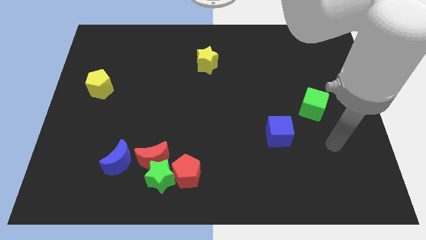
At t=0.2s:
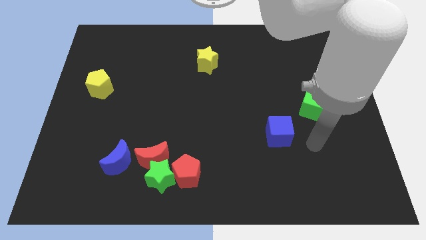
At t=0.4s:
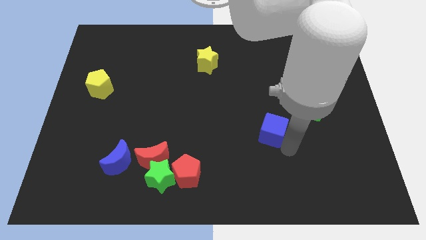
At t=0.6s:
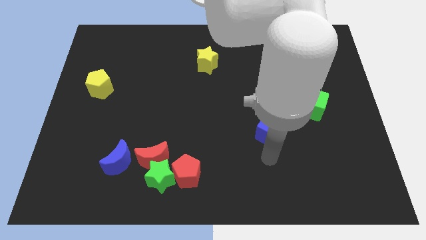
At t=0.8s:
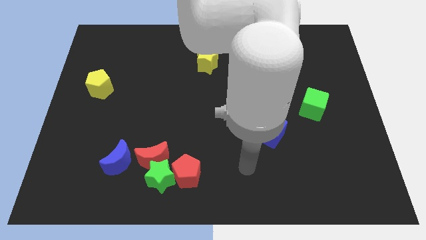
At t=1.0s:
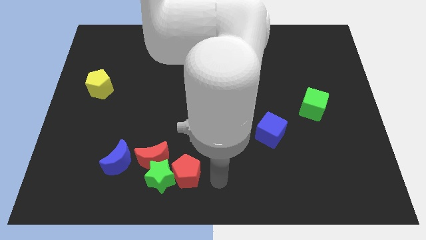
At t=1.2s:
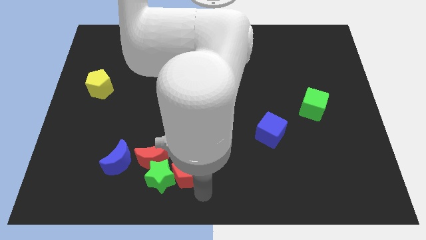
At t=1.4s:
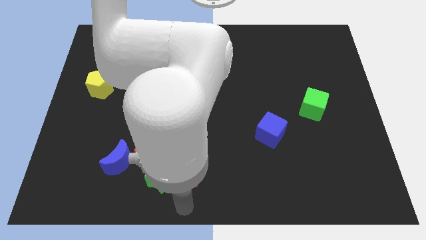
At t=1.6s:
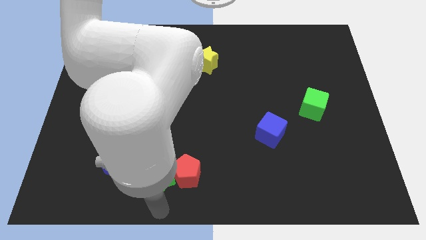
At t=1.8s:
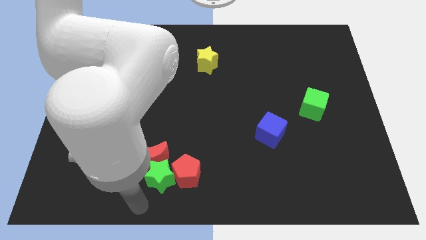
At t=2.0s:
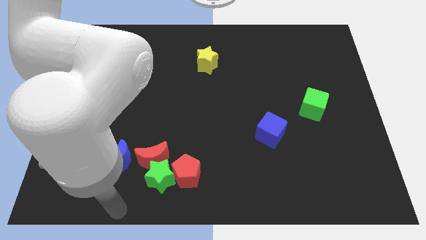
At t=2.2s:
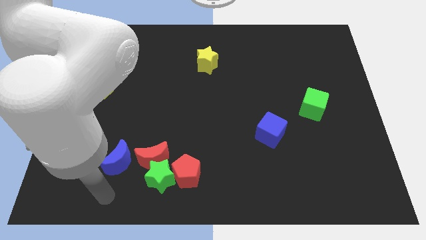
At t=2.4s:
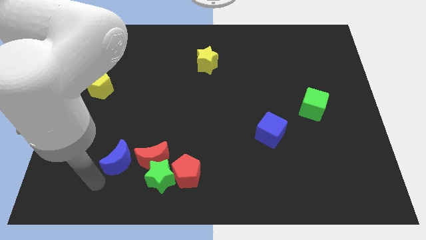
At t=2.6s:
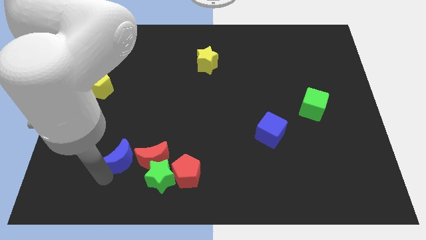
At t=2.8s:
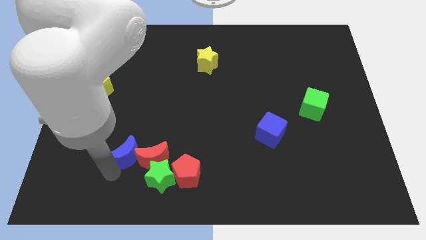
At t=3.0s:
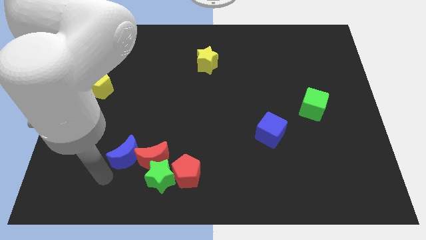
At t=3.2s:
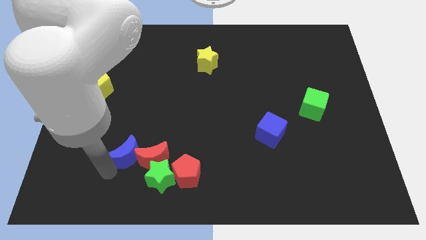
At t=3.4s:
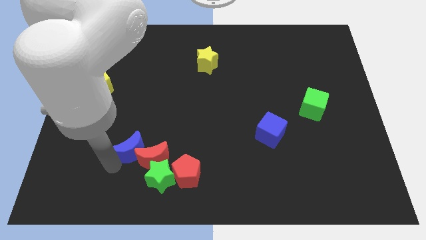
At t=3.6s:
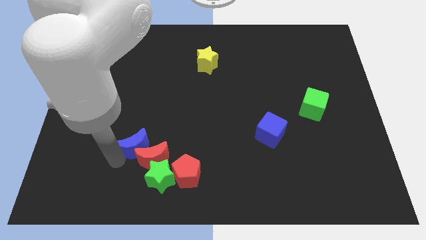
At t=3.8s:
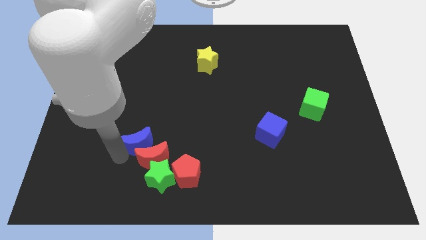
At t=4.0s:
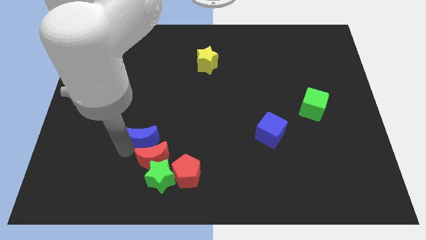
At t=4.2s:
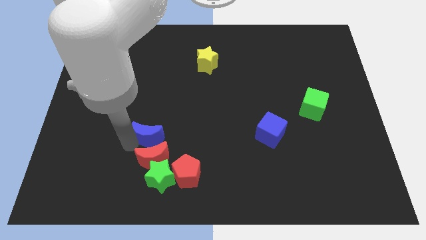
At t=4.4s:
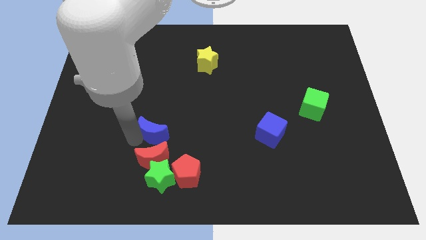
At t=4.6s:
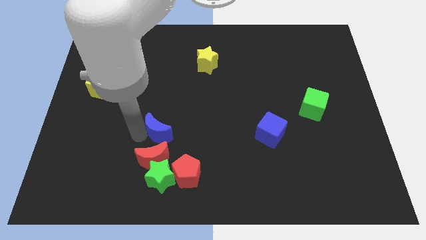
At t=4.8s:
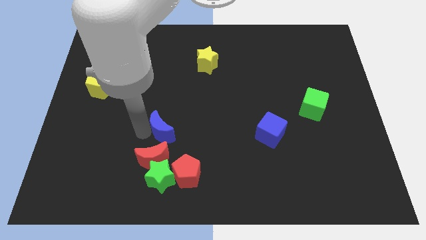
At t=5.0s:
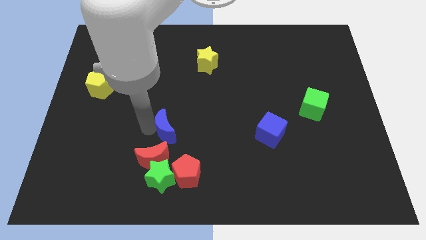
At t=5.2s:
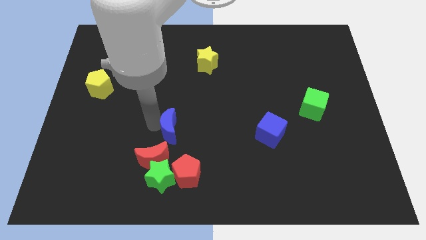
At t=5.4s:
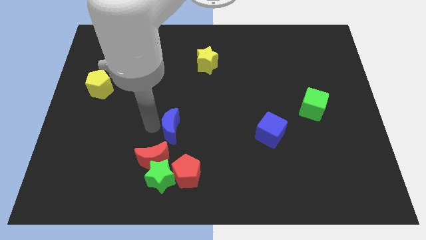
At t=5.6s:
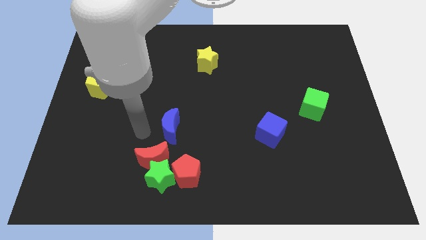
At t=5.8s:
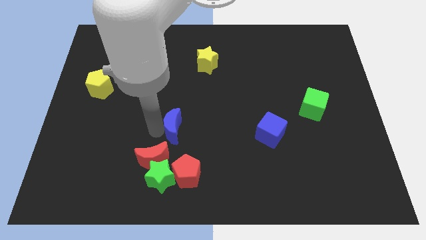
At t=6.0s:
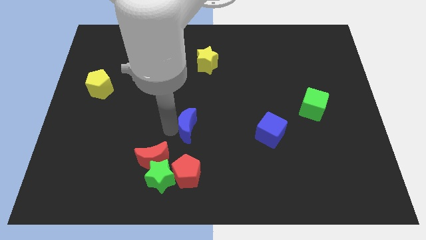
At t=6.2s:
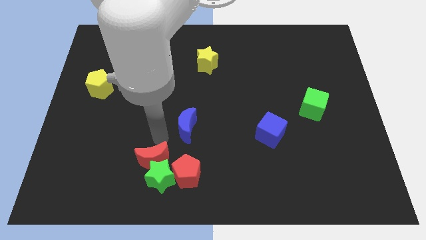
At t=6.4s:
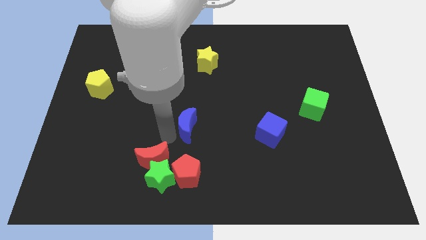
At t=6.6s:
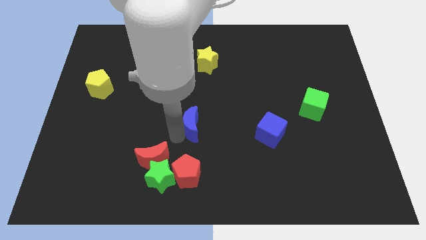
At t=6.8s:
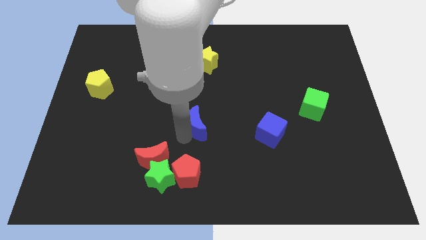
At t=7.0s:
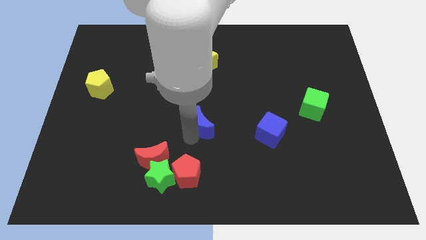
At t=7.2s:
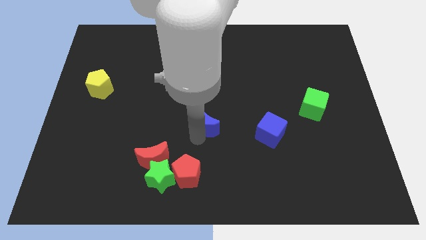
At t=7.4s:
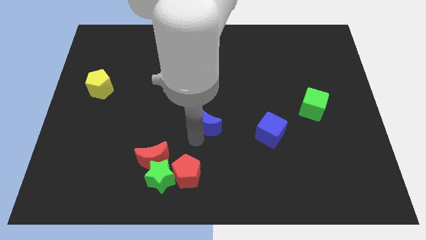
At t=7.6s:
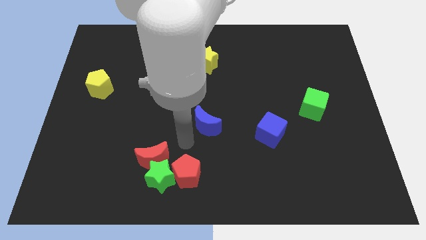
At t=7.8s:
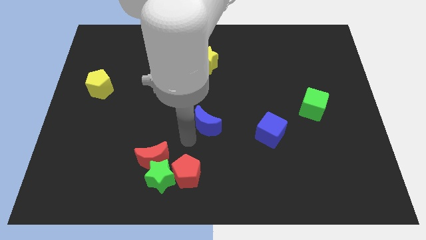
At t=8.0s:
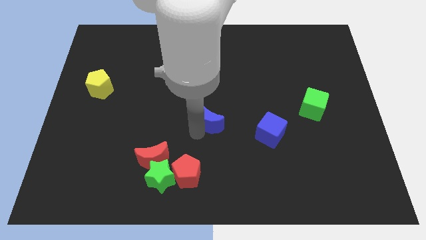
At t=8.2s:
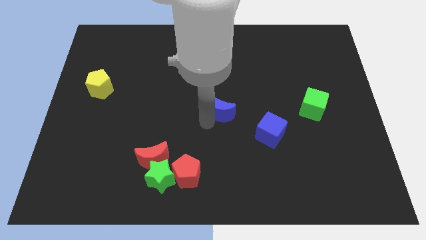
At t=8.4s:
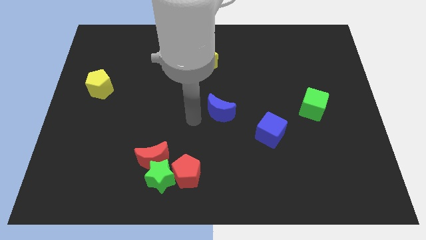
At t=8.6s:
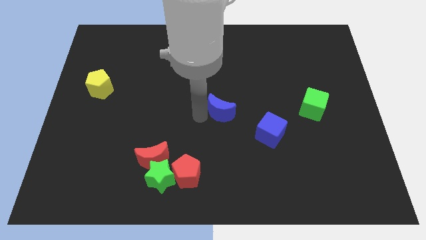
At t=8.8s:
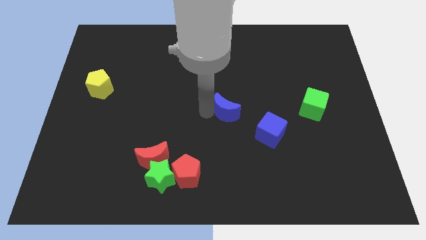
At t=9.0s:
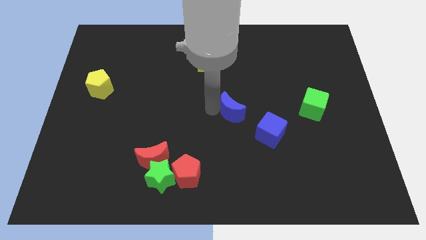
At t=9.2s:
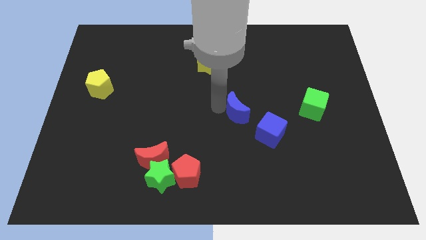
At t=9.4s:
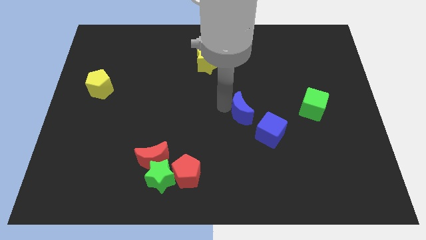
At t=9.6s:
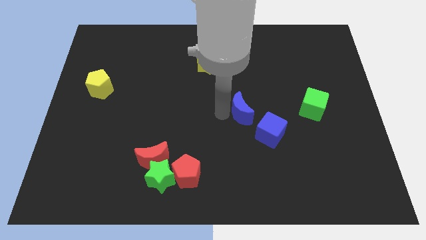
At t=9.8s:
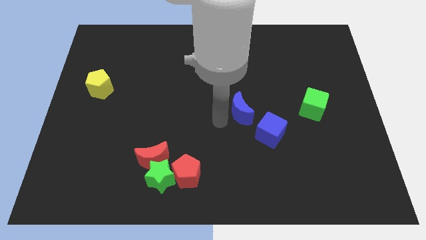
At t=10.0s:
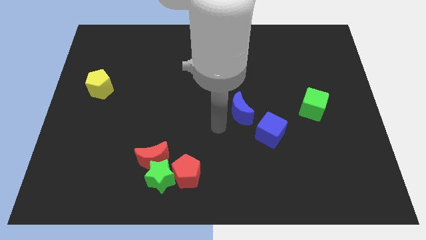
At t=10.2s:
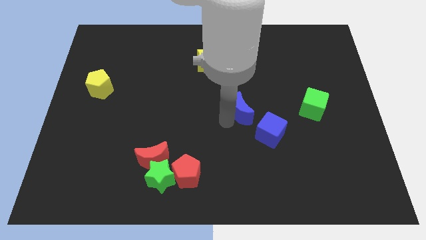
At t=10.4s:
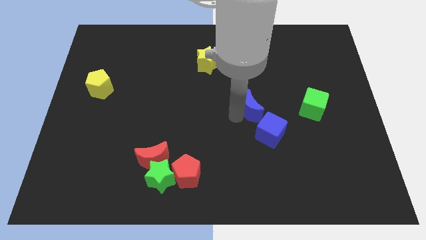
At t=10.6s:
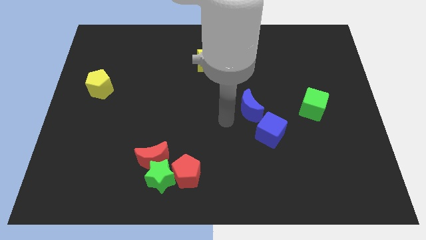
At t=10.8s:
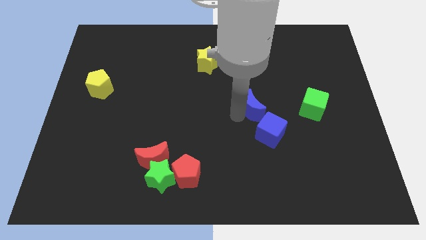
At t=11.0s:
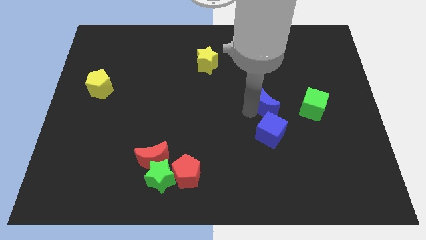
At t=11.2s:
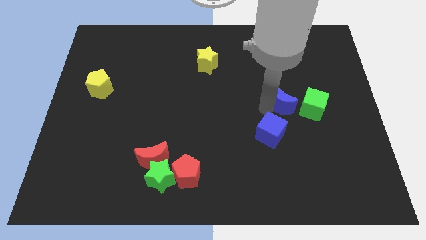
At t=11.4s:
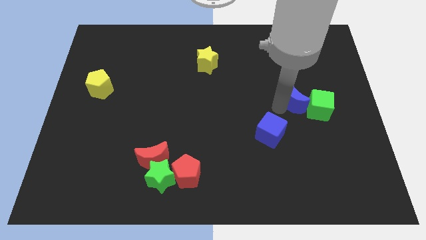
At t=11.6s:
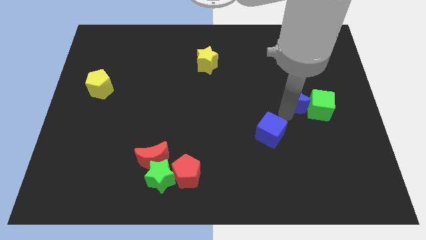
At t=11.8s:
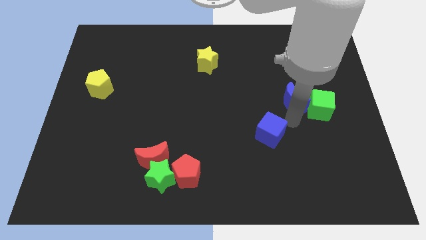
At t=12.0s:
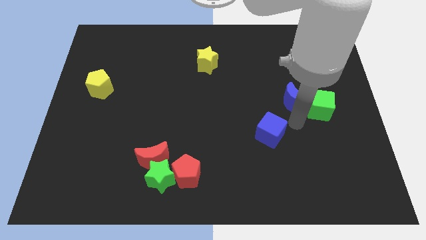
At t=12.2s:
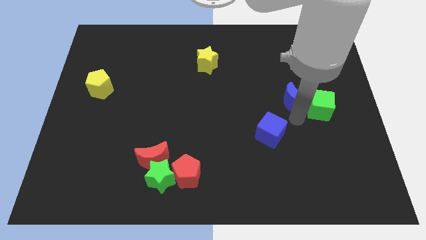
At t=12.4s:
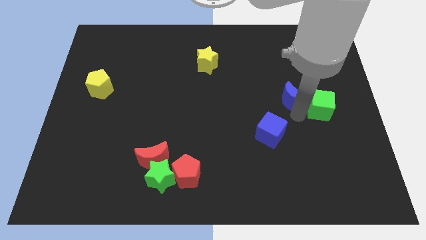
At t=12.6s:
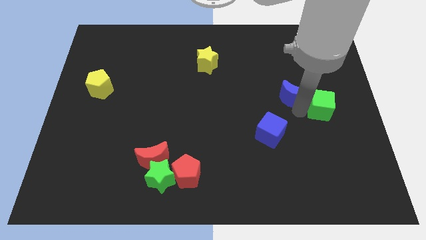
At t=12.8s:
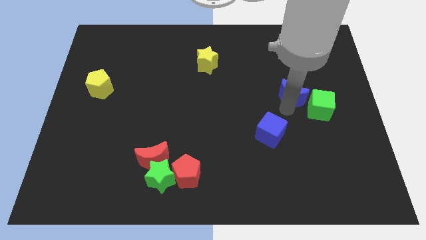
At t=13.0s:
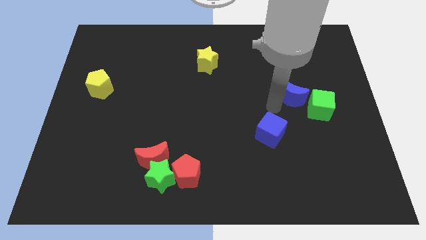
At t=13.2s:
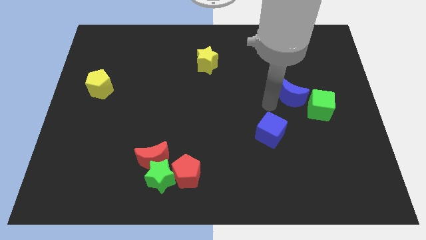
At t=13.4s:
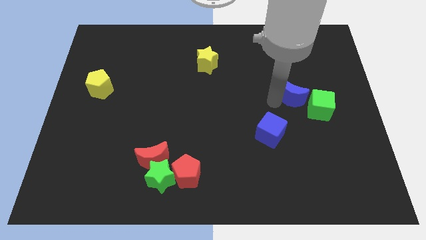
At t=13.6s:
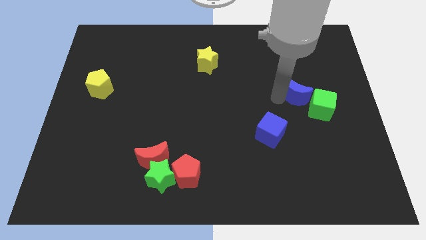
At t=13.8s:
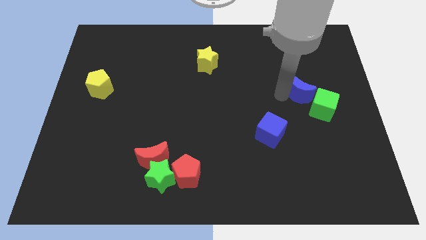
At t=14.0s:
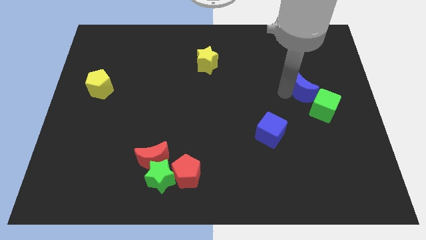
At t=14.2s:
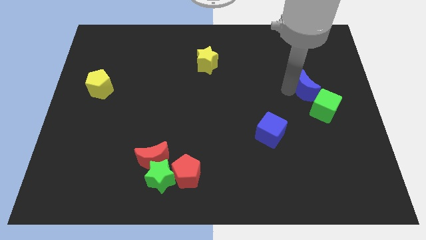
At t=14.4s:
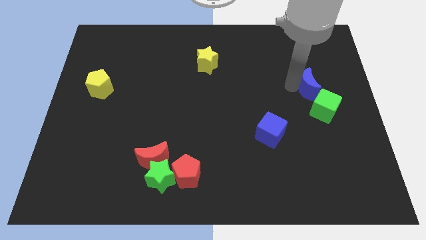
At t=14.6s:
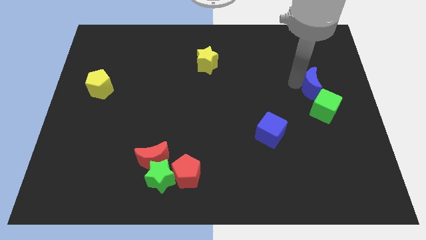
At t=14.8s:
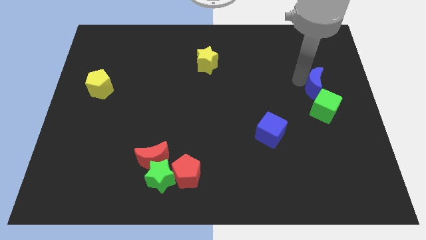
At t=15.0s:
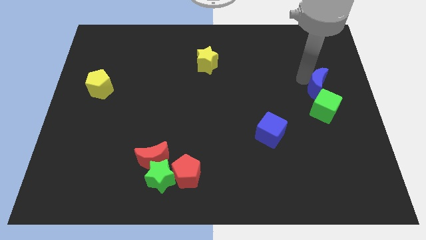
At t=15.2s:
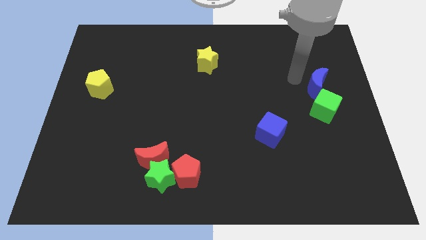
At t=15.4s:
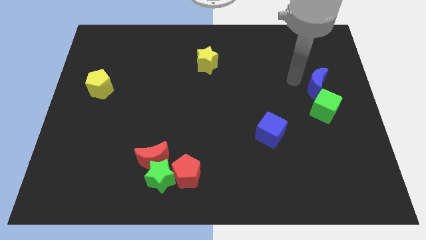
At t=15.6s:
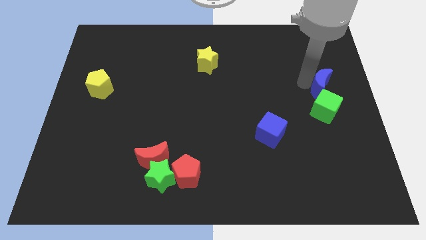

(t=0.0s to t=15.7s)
slide the blue moon to the center right
